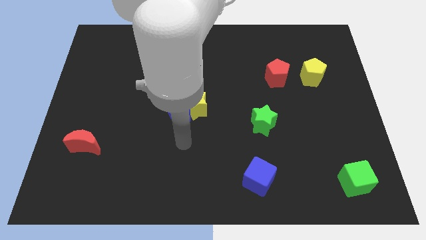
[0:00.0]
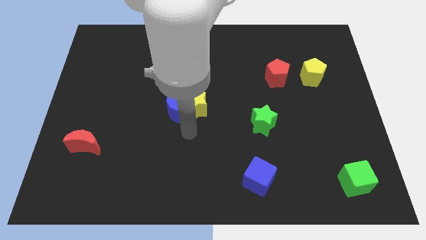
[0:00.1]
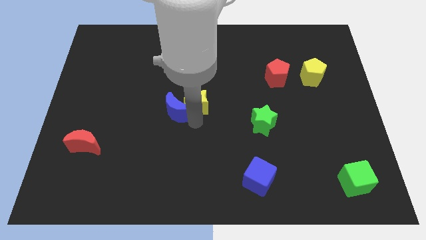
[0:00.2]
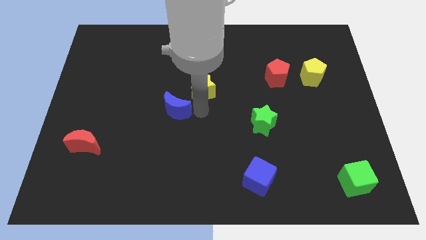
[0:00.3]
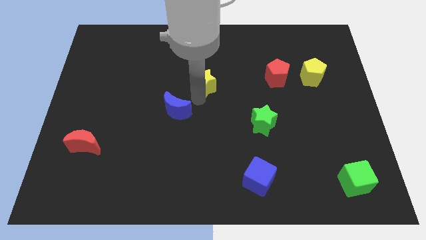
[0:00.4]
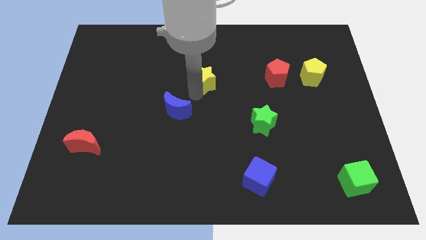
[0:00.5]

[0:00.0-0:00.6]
move the blue moon away from the yellow star

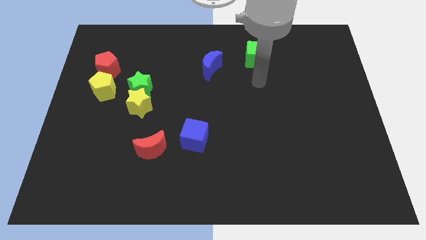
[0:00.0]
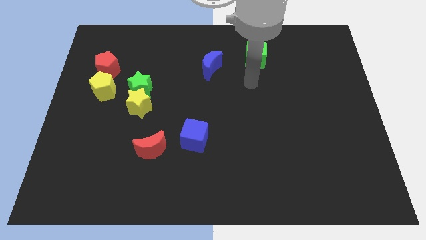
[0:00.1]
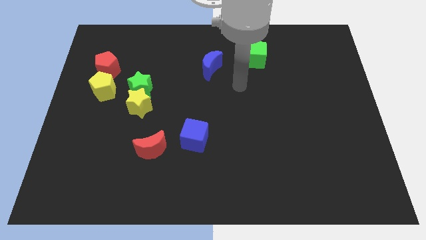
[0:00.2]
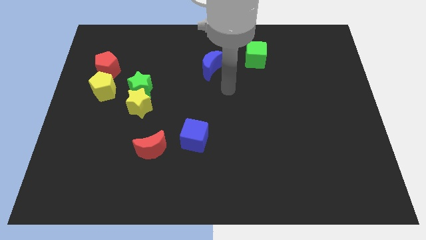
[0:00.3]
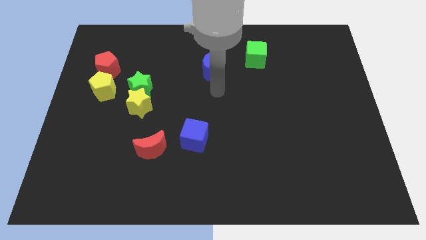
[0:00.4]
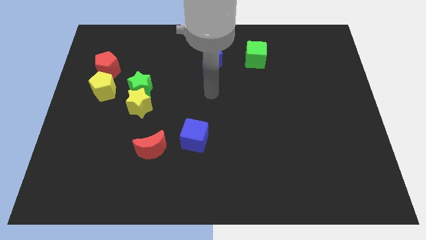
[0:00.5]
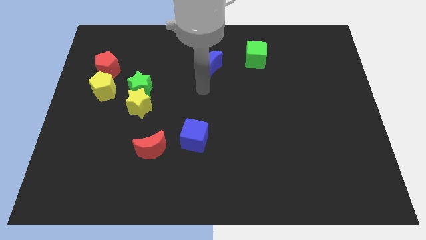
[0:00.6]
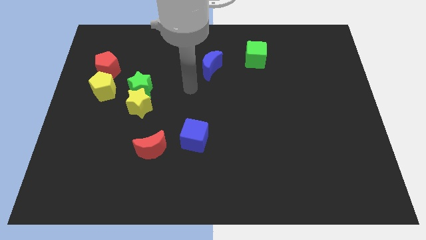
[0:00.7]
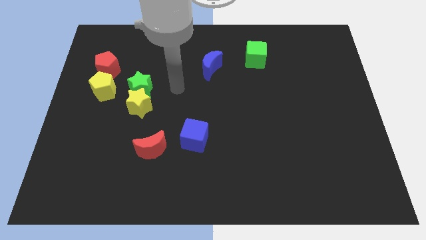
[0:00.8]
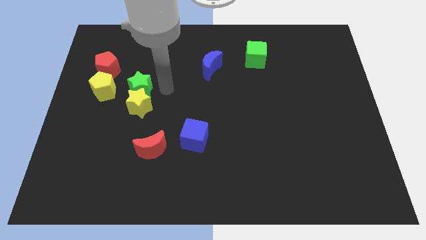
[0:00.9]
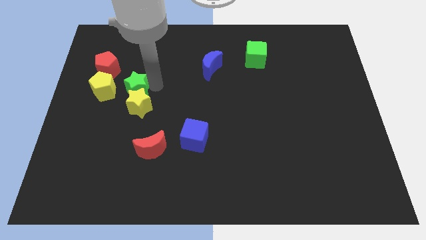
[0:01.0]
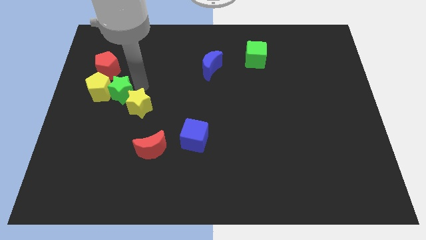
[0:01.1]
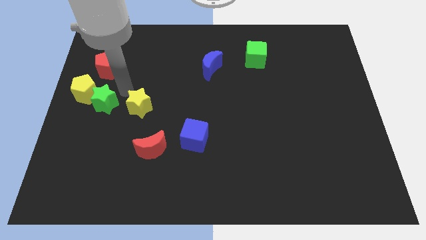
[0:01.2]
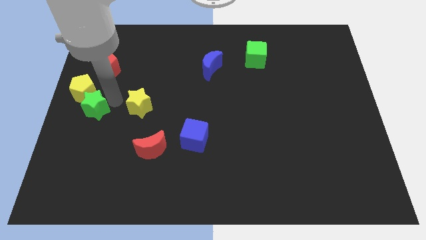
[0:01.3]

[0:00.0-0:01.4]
separate the yellow star from the green star

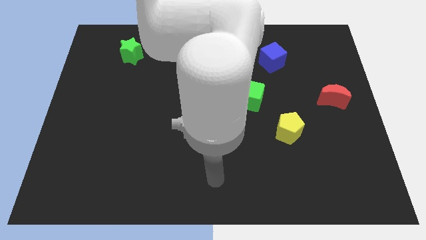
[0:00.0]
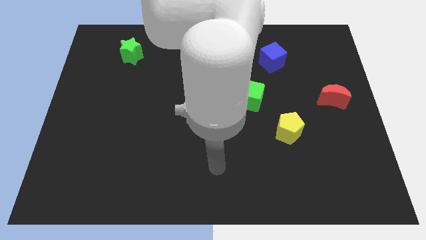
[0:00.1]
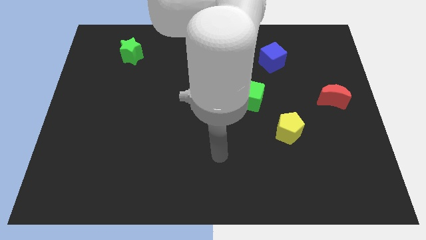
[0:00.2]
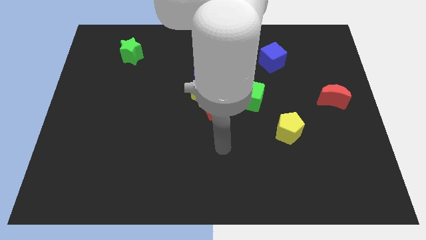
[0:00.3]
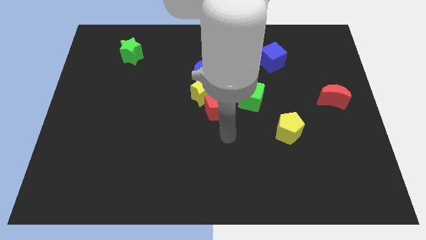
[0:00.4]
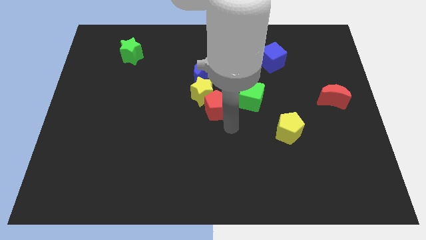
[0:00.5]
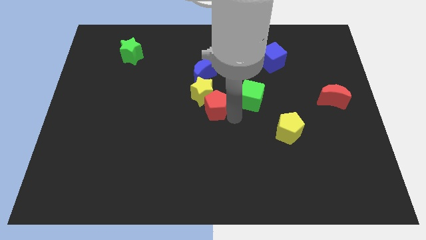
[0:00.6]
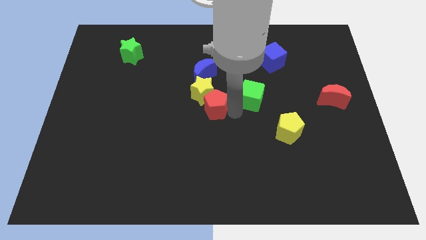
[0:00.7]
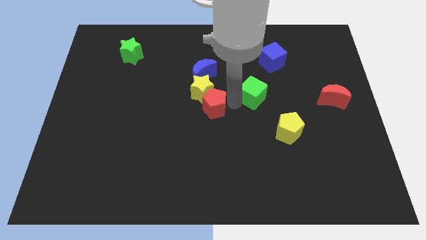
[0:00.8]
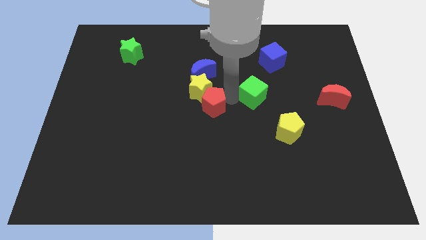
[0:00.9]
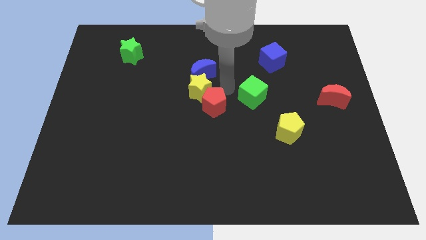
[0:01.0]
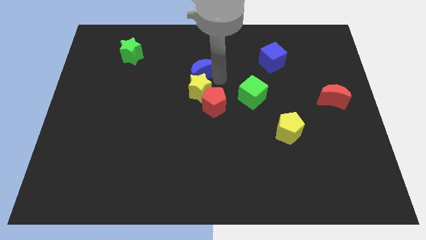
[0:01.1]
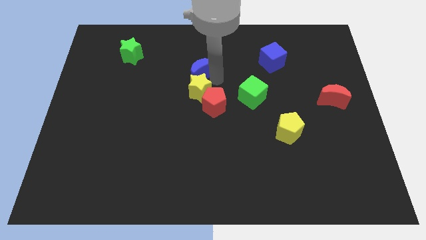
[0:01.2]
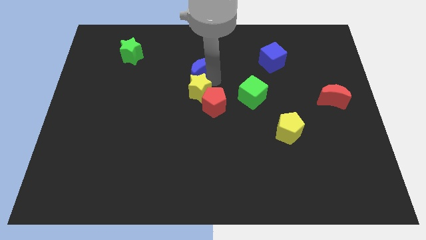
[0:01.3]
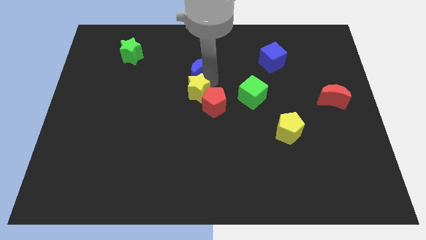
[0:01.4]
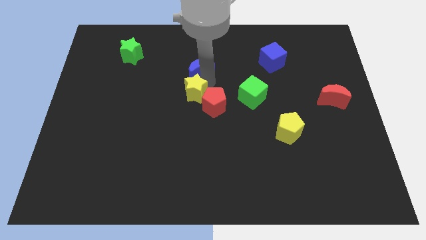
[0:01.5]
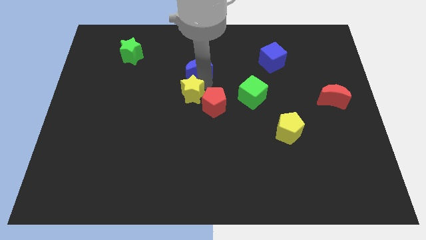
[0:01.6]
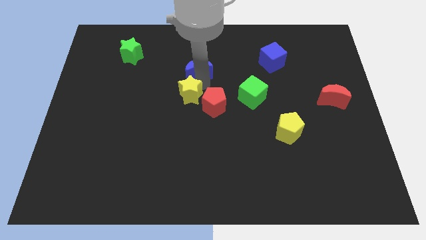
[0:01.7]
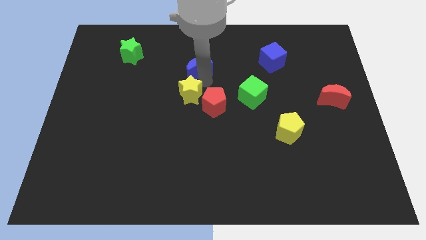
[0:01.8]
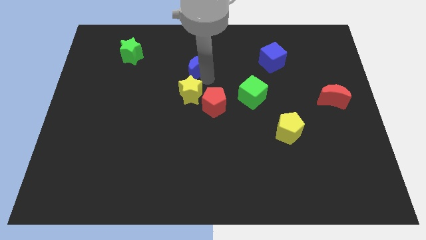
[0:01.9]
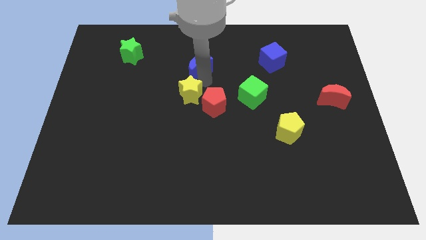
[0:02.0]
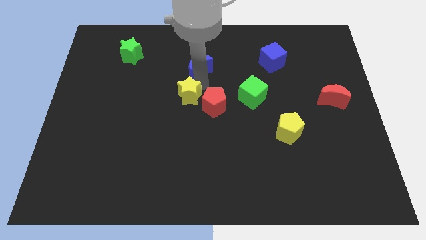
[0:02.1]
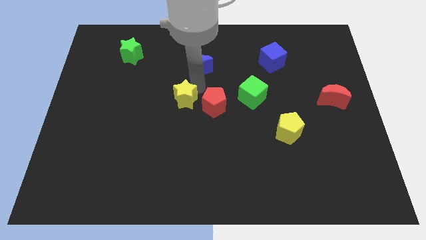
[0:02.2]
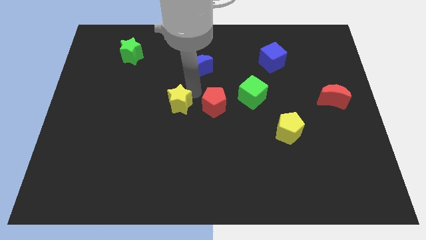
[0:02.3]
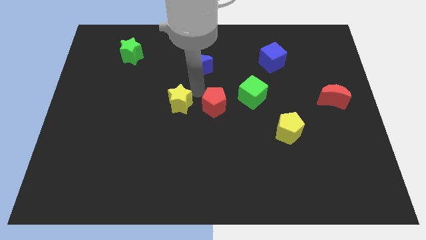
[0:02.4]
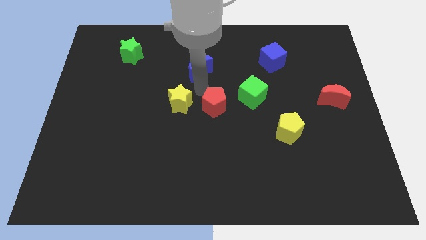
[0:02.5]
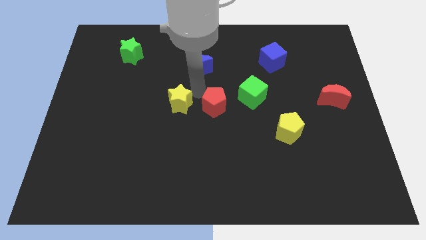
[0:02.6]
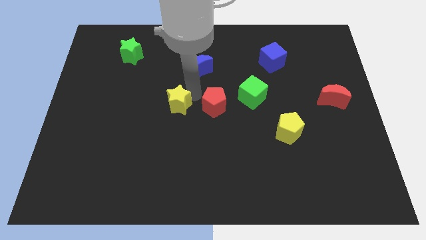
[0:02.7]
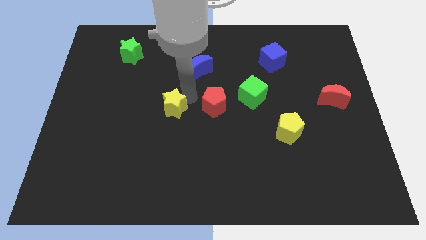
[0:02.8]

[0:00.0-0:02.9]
separate the yellow star from the red pentagon and blue moon

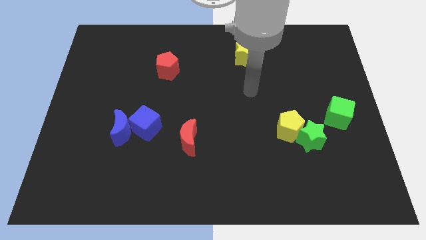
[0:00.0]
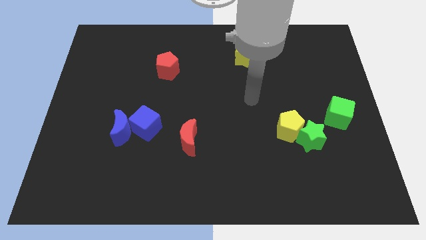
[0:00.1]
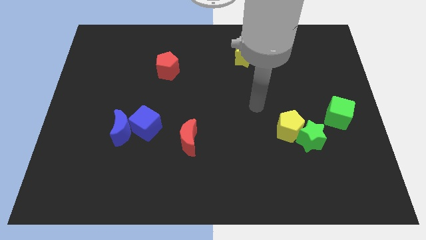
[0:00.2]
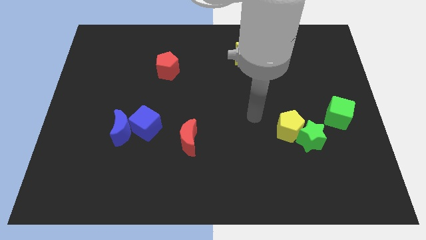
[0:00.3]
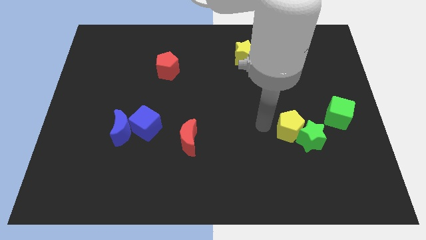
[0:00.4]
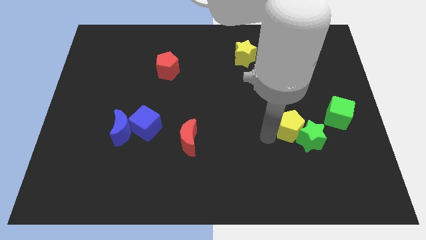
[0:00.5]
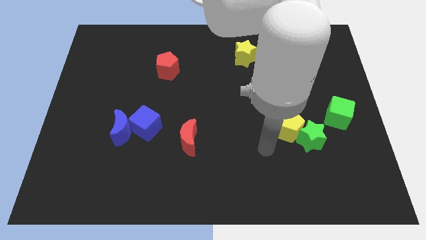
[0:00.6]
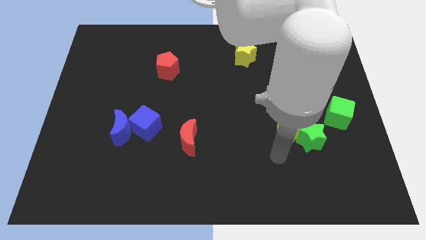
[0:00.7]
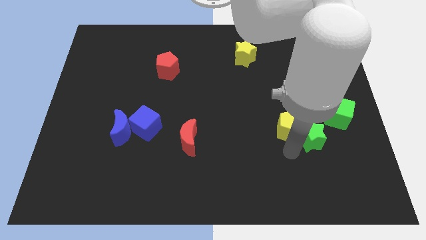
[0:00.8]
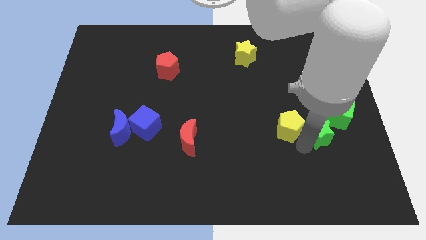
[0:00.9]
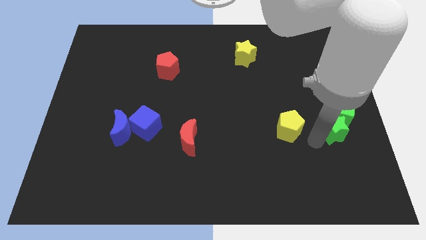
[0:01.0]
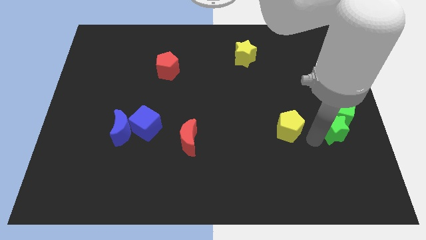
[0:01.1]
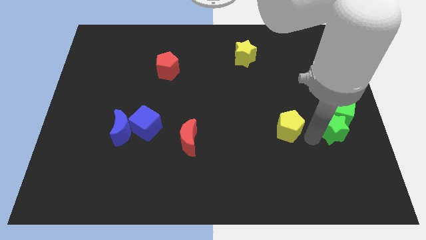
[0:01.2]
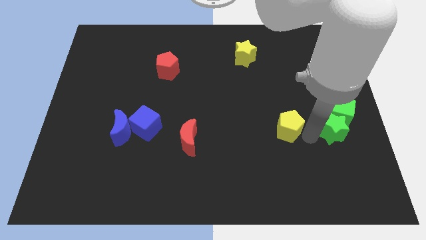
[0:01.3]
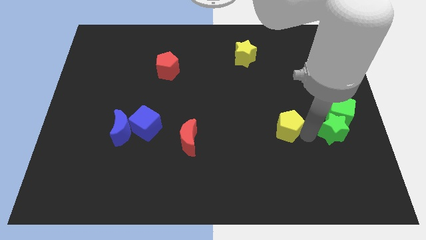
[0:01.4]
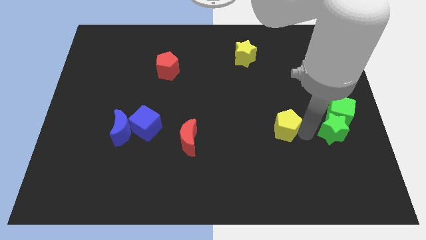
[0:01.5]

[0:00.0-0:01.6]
separate the yellow pentagon from the green star

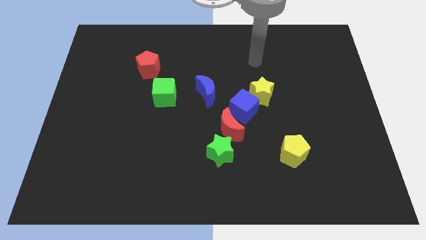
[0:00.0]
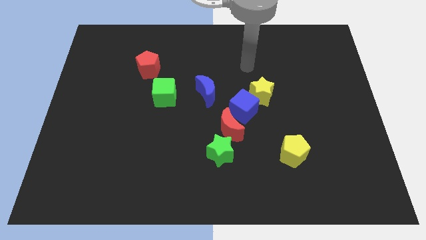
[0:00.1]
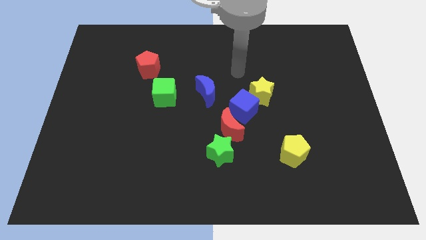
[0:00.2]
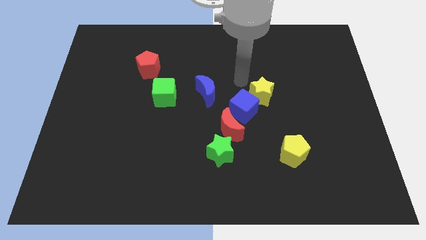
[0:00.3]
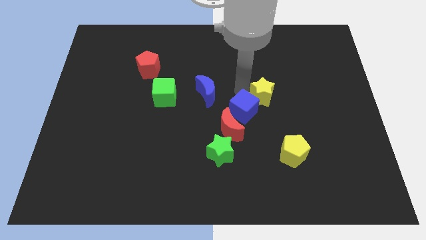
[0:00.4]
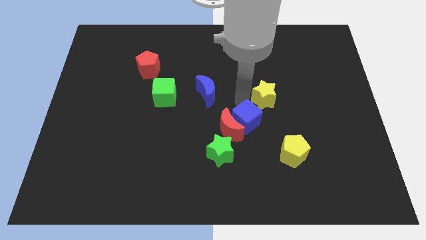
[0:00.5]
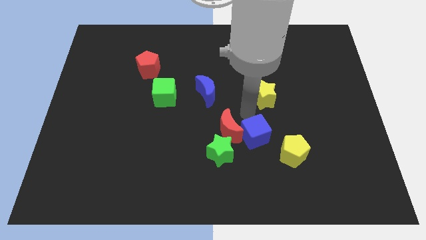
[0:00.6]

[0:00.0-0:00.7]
move the yellow star away from the blue cube

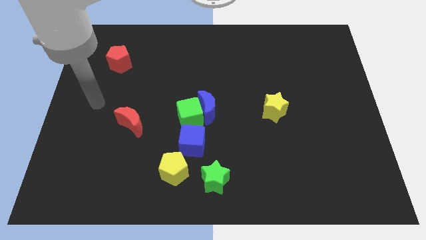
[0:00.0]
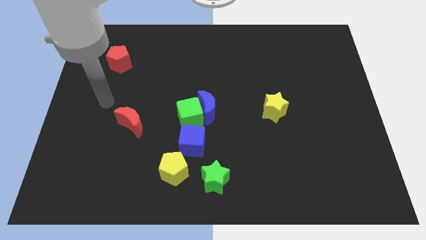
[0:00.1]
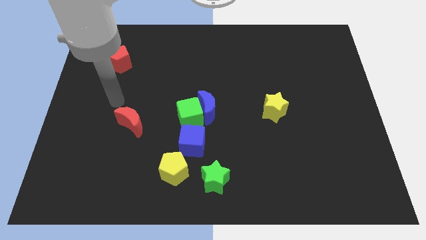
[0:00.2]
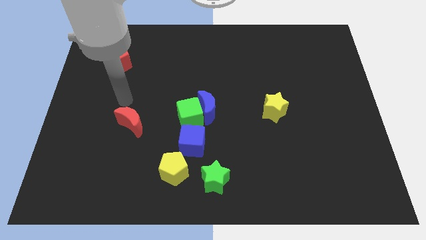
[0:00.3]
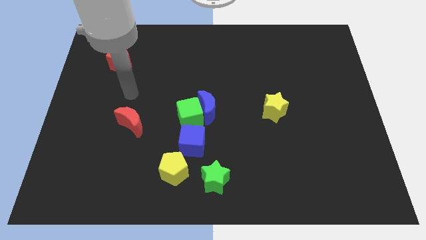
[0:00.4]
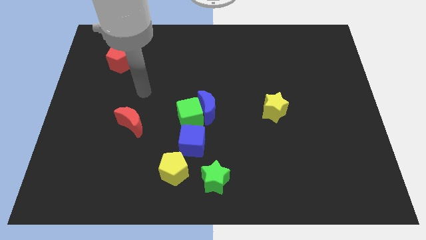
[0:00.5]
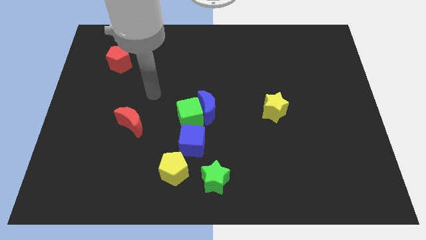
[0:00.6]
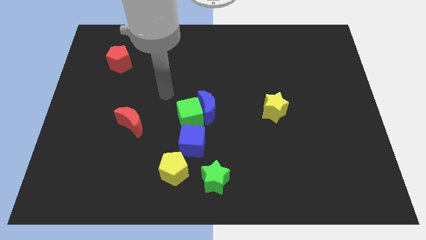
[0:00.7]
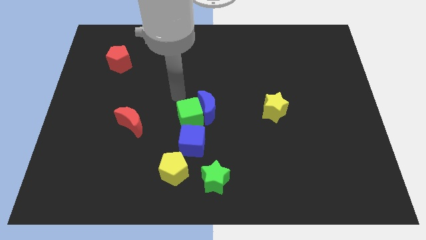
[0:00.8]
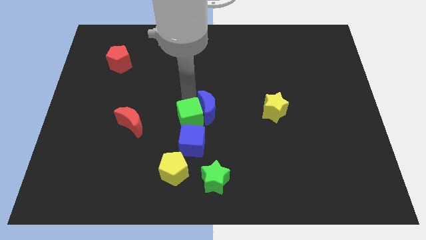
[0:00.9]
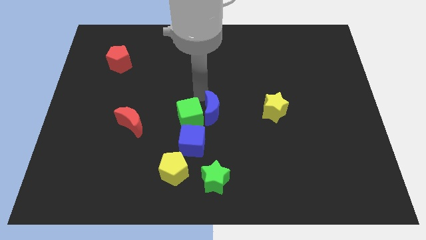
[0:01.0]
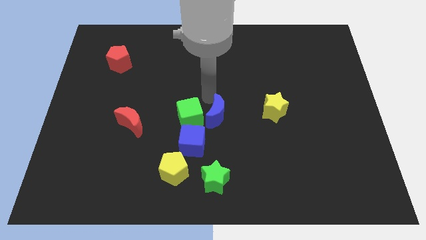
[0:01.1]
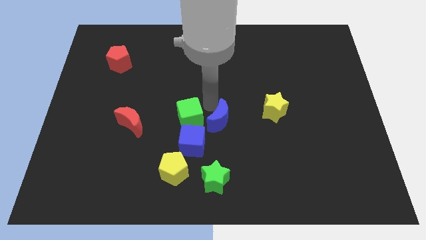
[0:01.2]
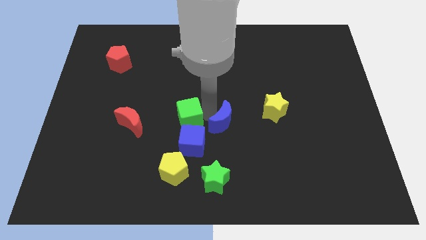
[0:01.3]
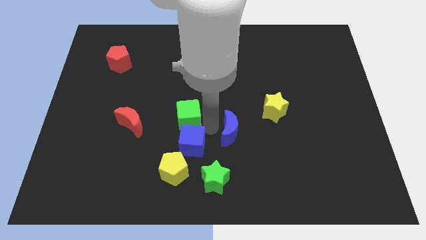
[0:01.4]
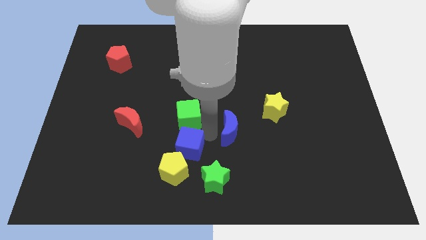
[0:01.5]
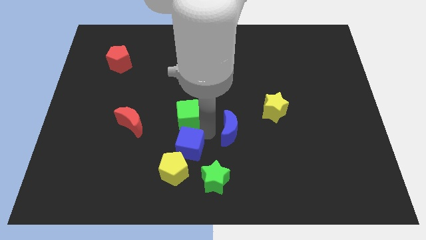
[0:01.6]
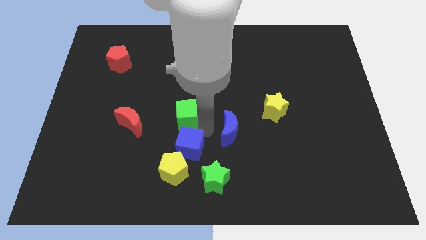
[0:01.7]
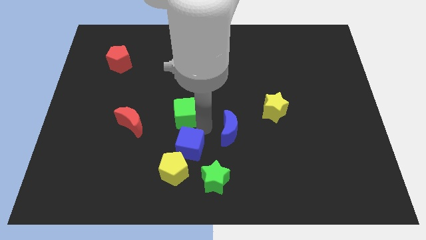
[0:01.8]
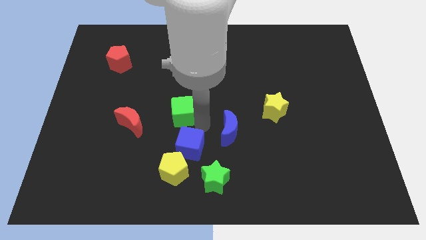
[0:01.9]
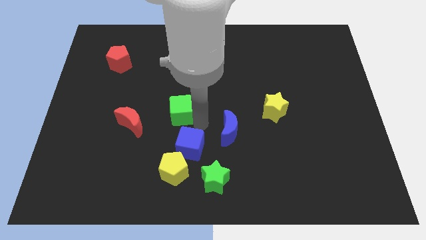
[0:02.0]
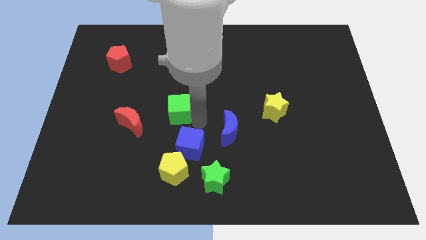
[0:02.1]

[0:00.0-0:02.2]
pull the green cube apart from the blue moon and blue cube
